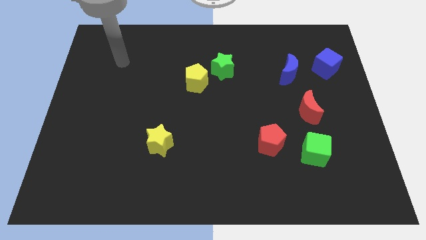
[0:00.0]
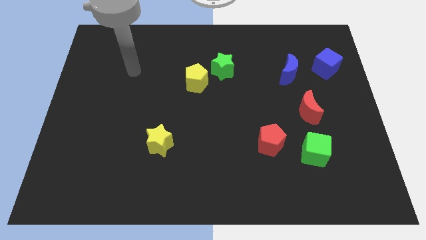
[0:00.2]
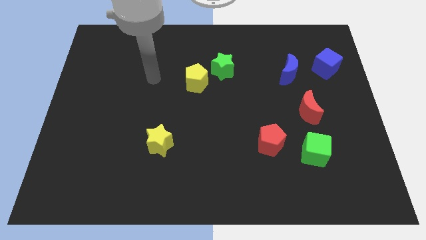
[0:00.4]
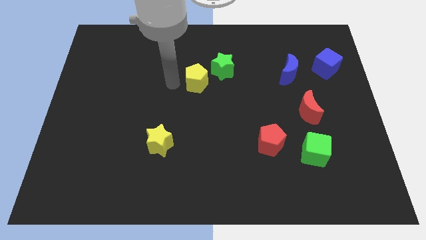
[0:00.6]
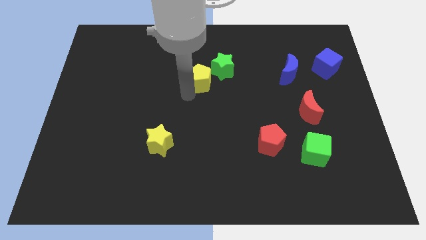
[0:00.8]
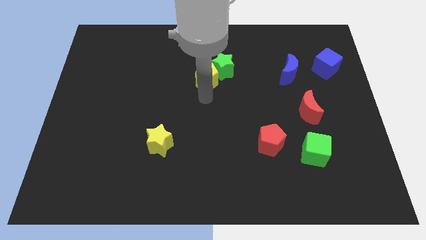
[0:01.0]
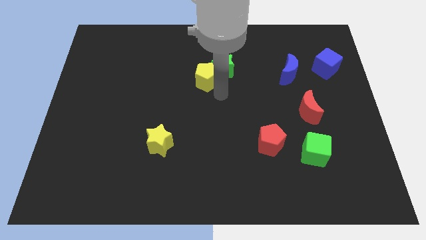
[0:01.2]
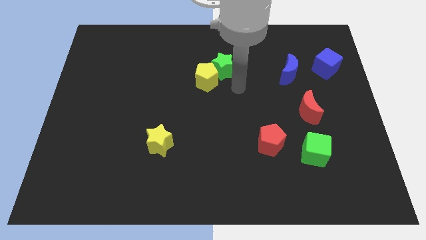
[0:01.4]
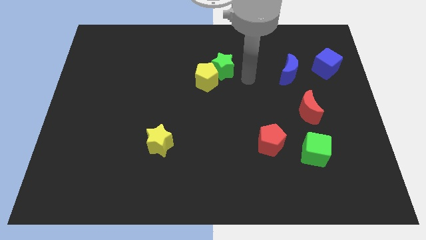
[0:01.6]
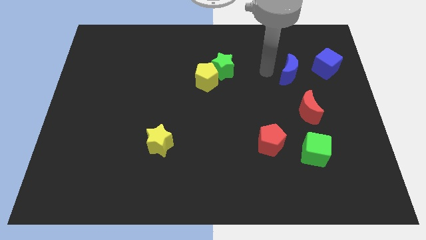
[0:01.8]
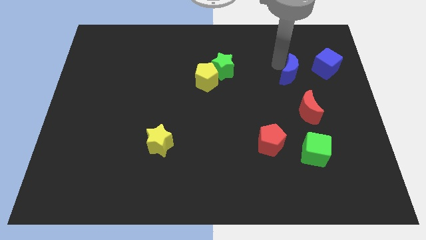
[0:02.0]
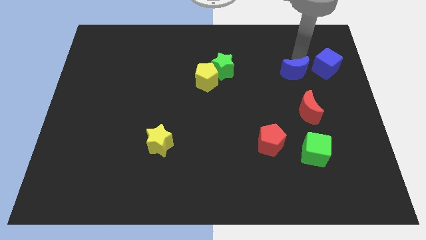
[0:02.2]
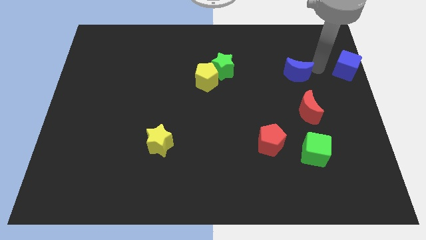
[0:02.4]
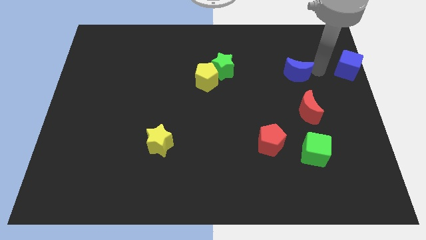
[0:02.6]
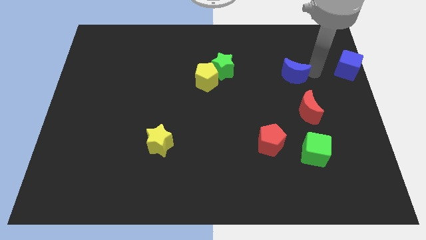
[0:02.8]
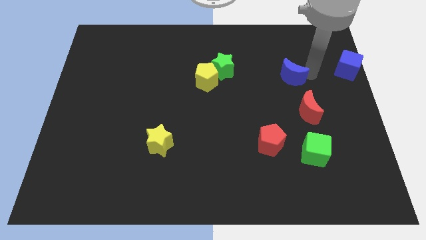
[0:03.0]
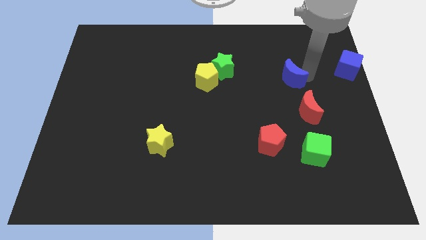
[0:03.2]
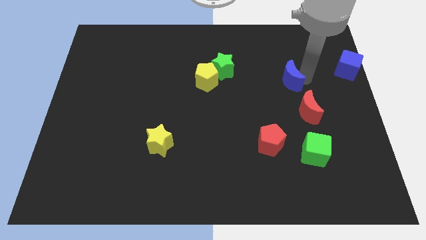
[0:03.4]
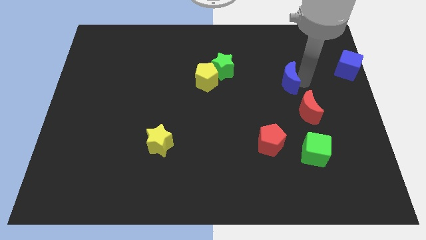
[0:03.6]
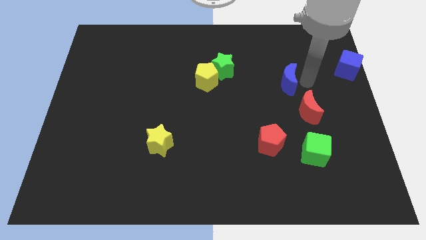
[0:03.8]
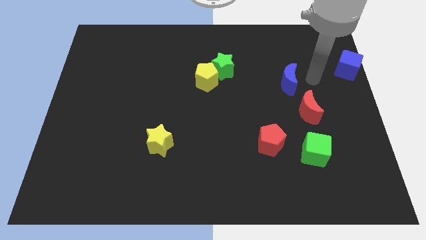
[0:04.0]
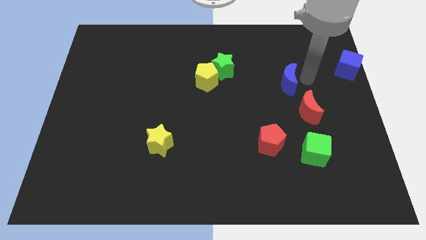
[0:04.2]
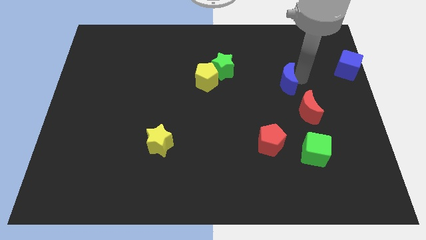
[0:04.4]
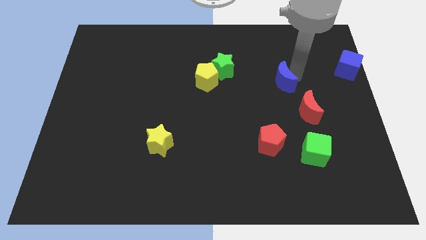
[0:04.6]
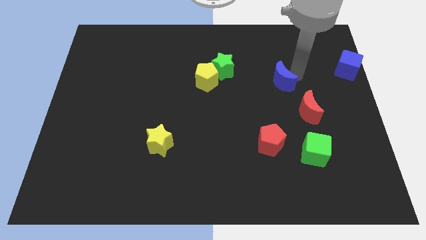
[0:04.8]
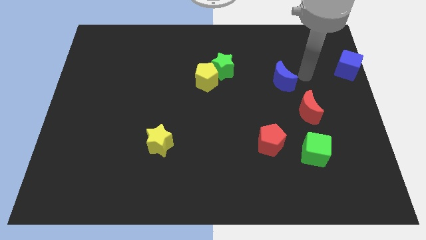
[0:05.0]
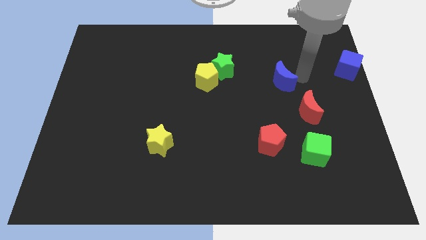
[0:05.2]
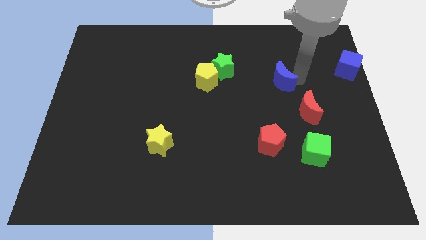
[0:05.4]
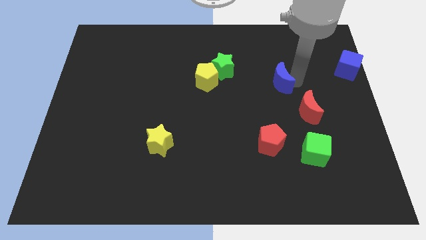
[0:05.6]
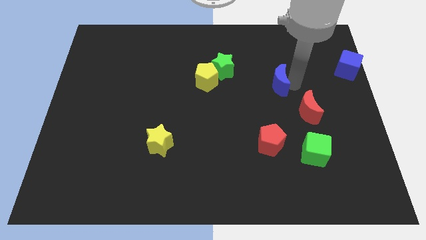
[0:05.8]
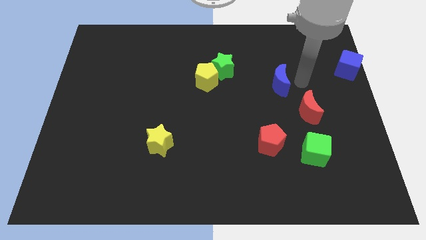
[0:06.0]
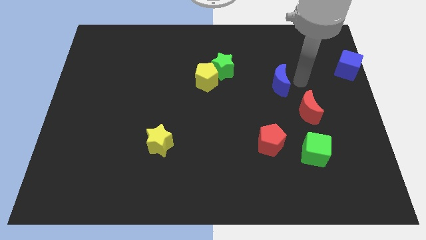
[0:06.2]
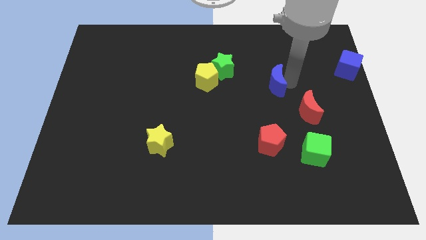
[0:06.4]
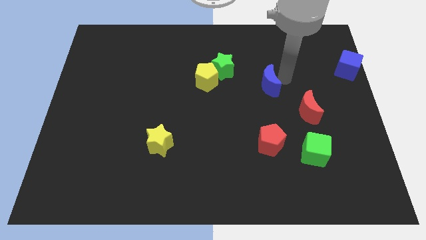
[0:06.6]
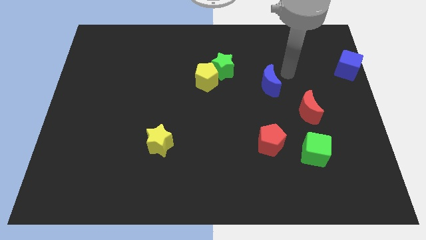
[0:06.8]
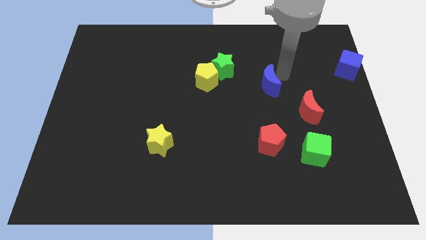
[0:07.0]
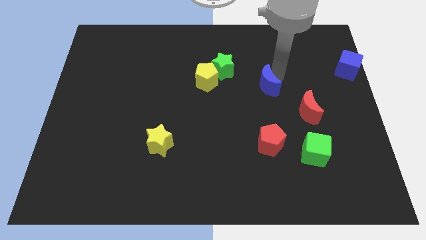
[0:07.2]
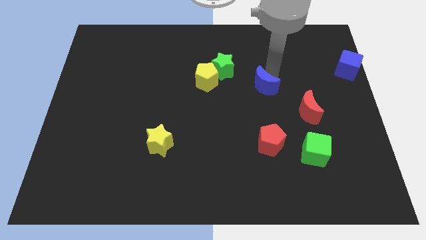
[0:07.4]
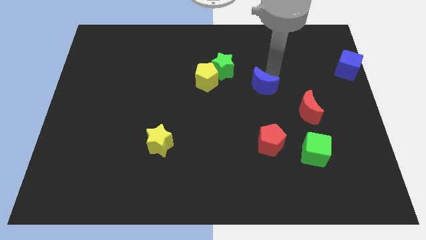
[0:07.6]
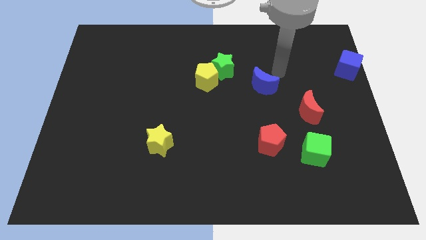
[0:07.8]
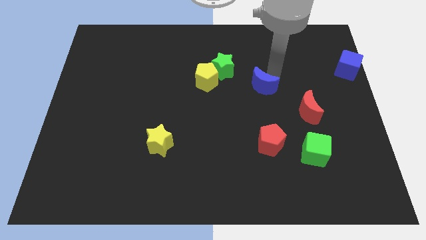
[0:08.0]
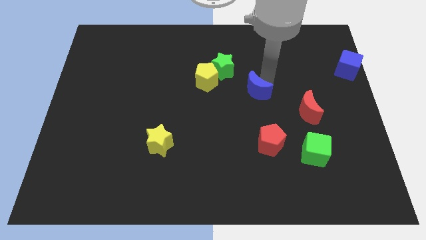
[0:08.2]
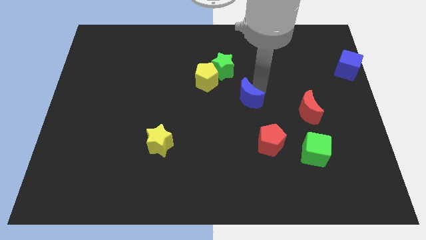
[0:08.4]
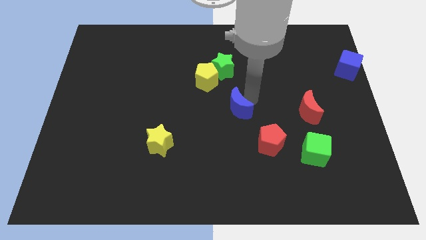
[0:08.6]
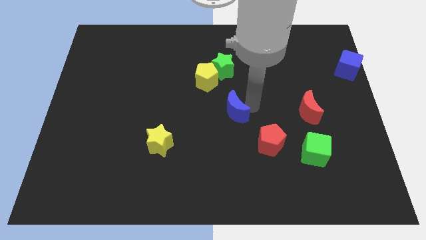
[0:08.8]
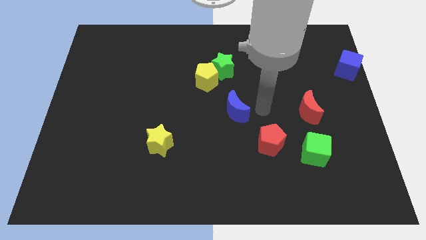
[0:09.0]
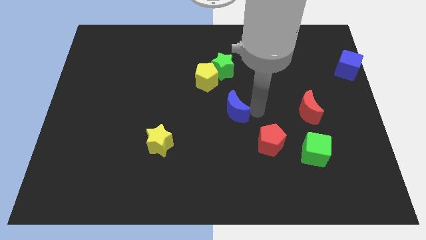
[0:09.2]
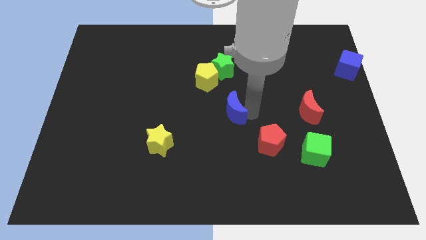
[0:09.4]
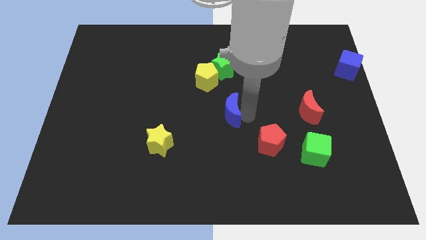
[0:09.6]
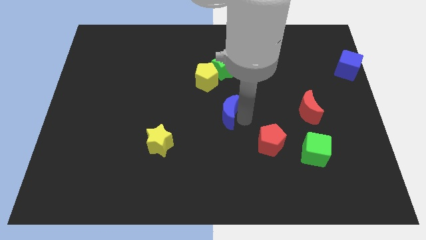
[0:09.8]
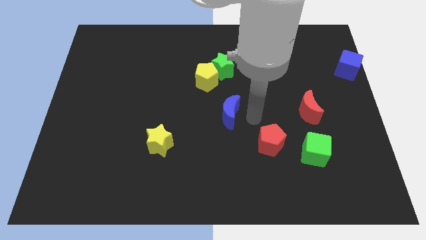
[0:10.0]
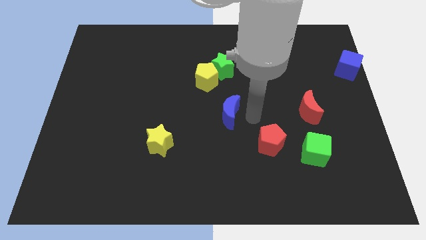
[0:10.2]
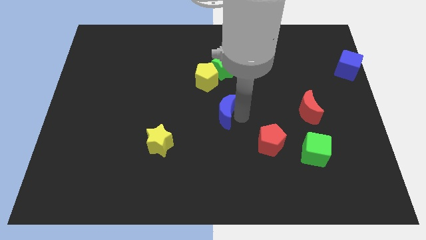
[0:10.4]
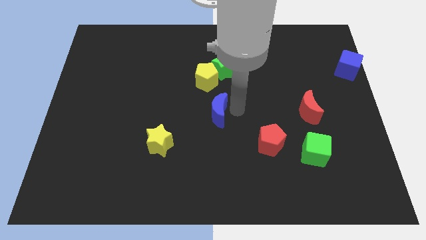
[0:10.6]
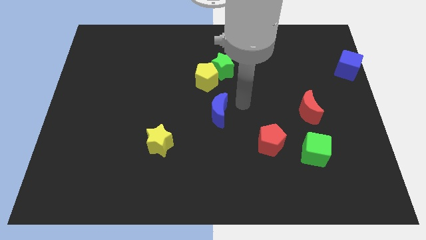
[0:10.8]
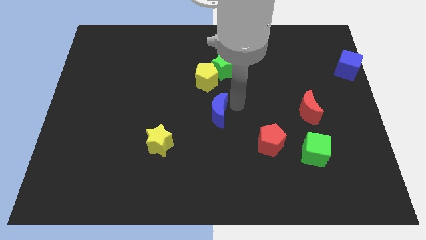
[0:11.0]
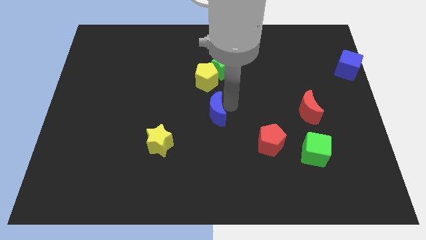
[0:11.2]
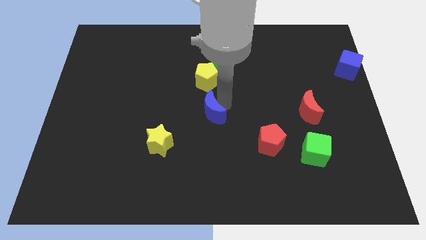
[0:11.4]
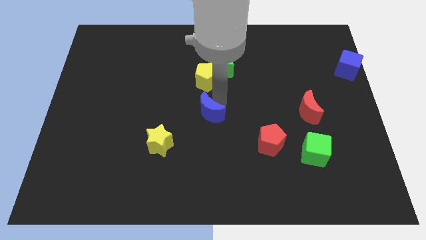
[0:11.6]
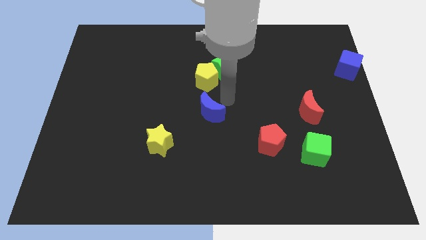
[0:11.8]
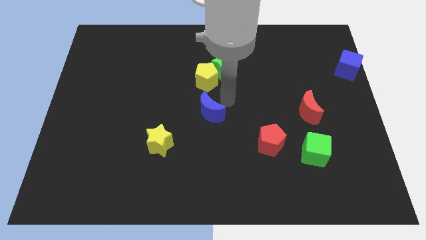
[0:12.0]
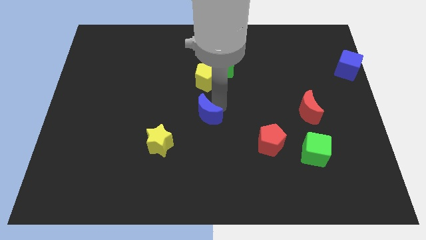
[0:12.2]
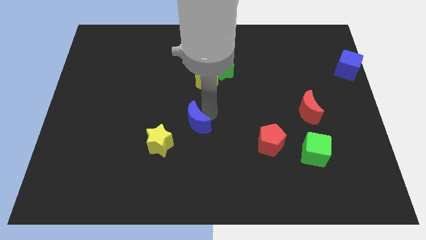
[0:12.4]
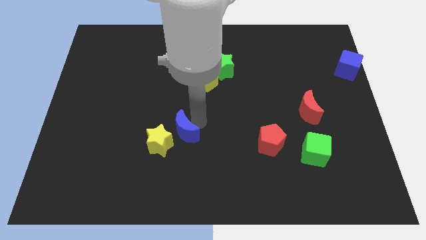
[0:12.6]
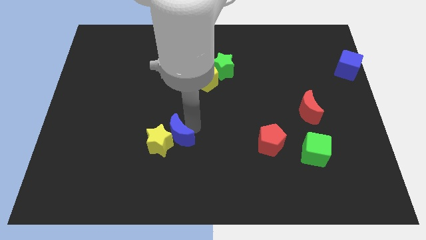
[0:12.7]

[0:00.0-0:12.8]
move the blue moon close to the yellow star
